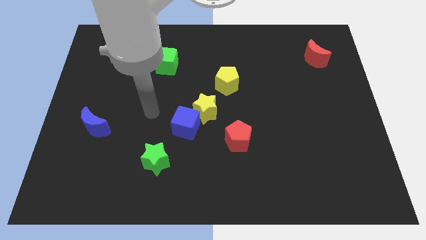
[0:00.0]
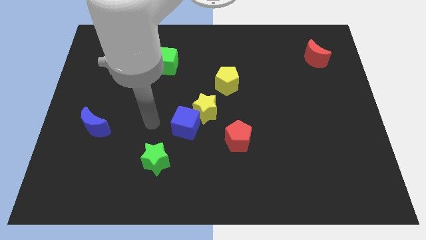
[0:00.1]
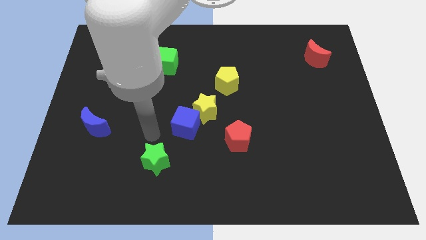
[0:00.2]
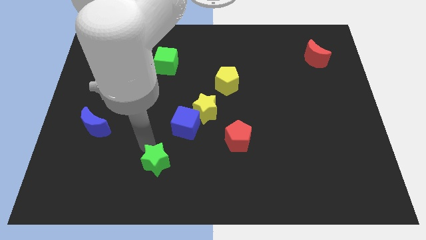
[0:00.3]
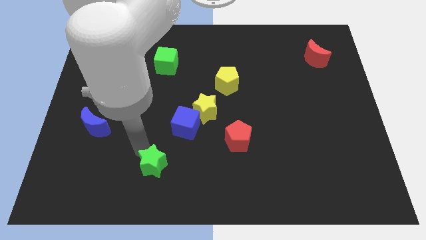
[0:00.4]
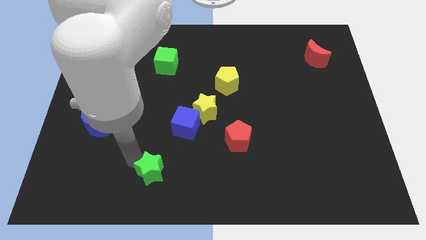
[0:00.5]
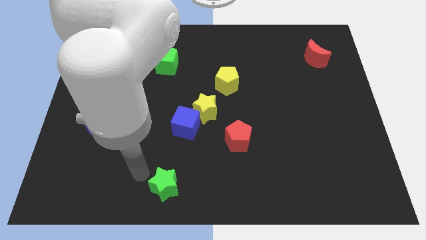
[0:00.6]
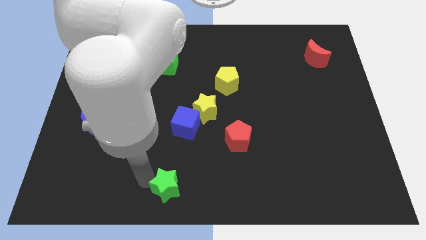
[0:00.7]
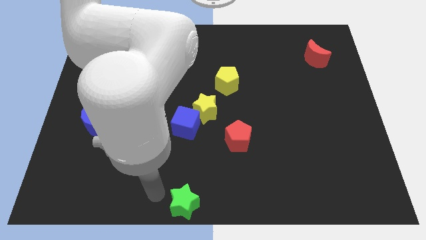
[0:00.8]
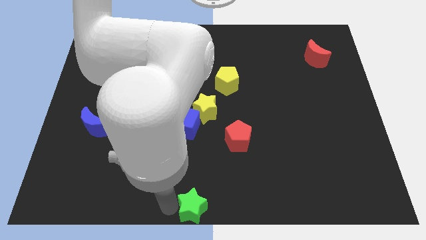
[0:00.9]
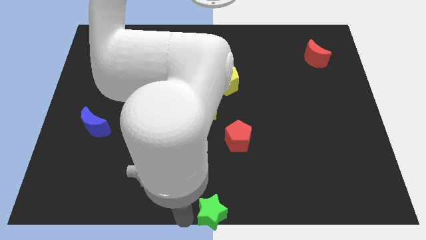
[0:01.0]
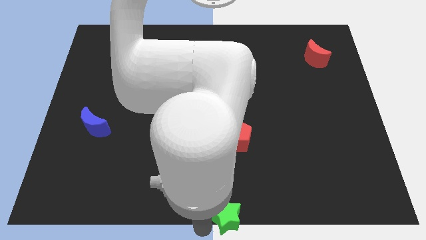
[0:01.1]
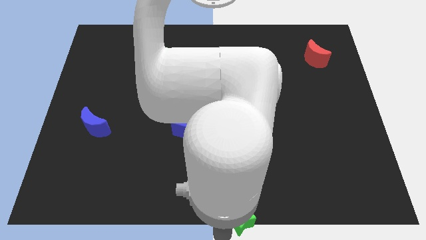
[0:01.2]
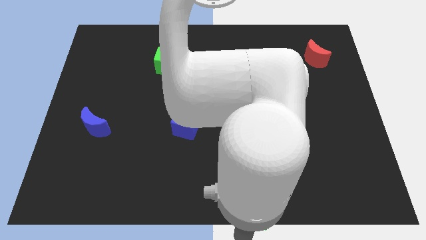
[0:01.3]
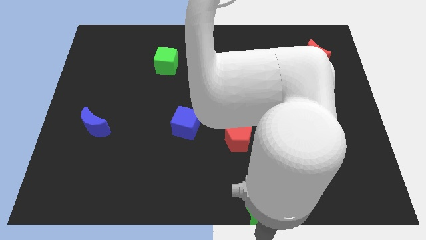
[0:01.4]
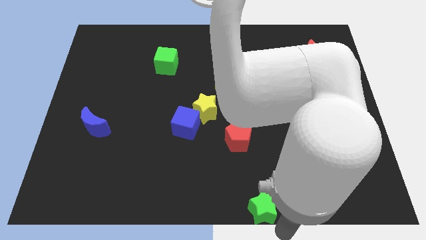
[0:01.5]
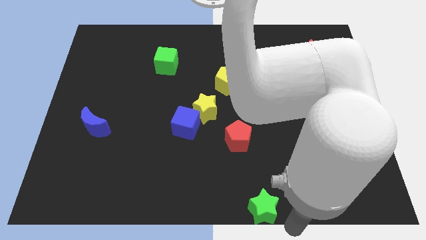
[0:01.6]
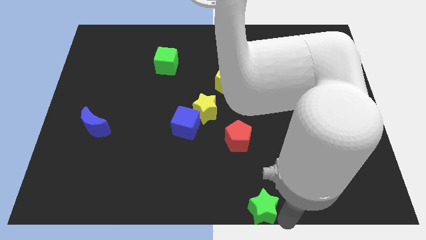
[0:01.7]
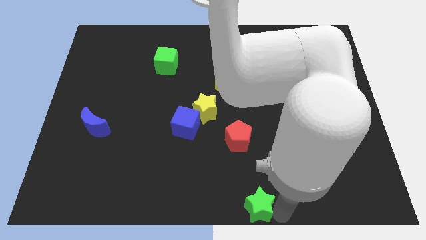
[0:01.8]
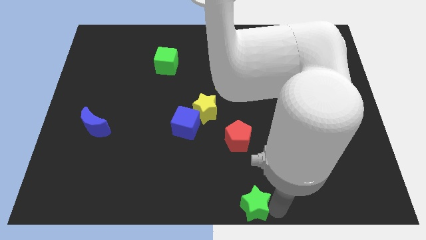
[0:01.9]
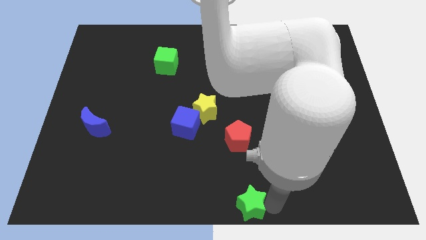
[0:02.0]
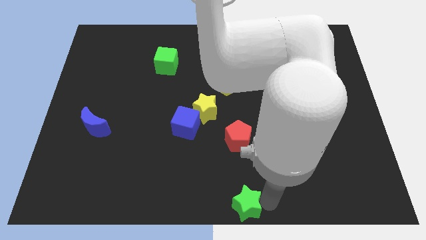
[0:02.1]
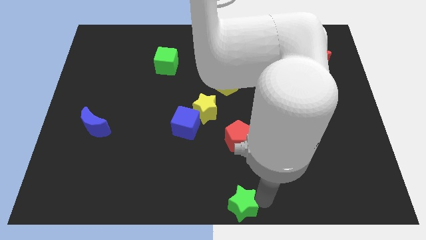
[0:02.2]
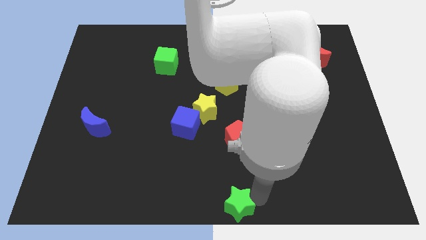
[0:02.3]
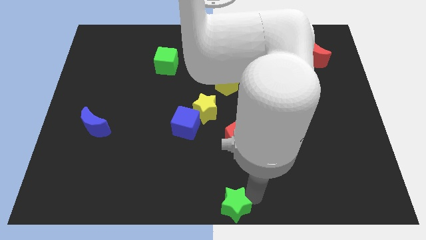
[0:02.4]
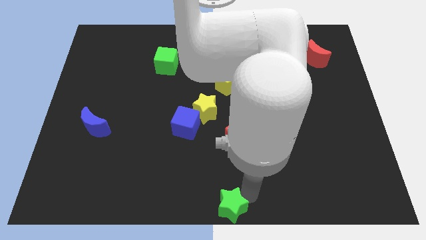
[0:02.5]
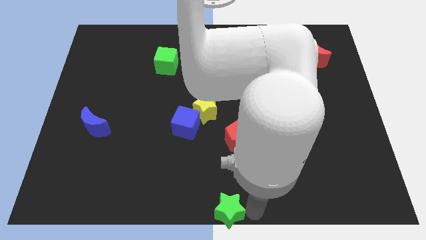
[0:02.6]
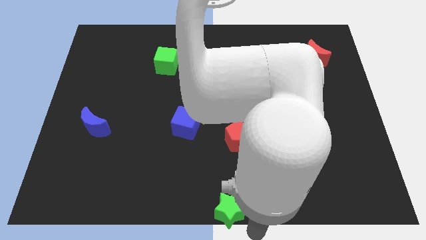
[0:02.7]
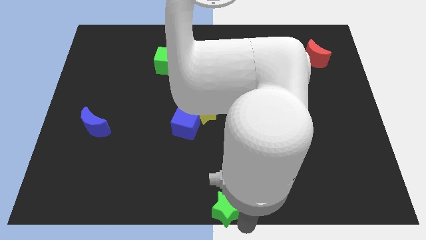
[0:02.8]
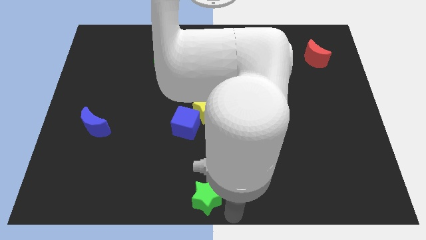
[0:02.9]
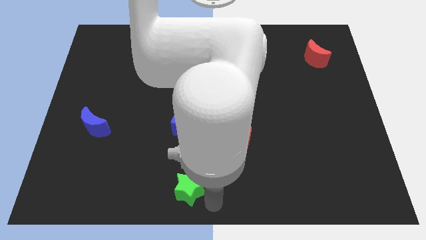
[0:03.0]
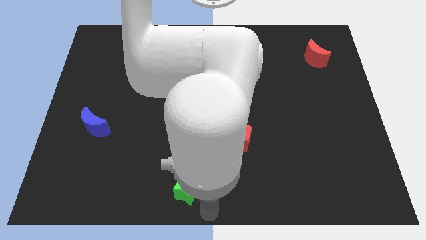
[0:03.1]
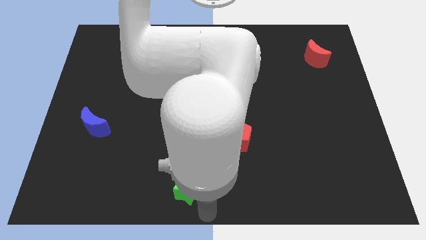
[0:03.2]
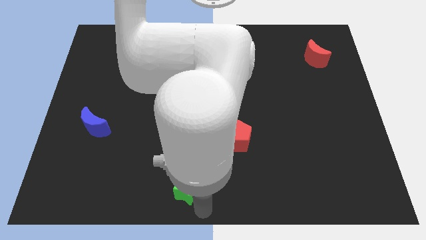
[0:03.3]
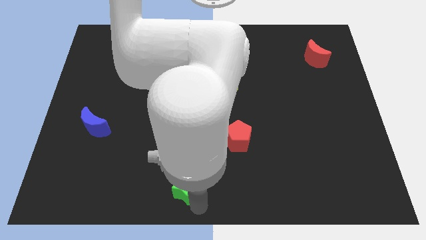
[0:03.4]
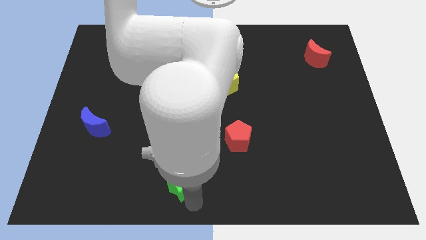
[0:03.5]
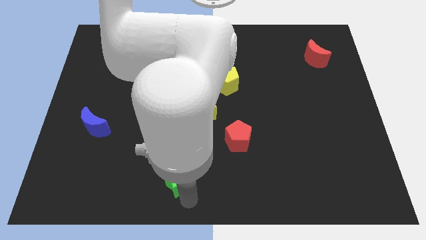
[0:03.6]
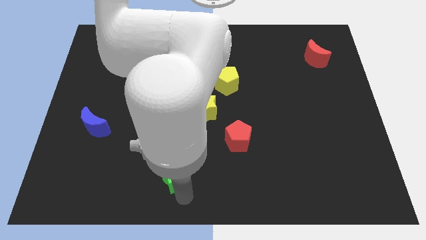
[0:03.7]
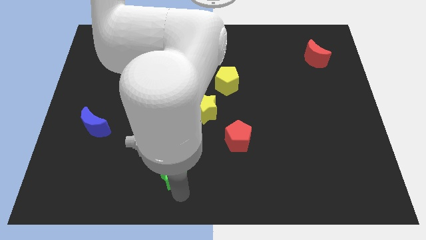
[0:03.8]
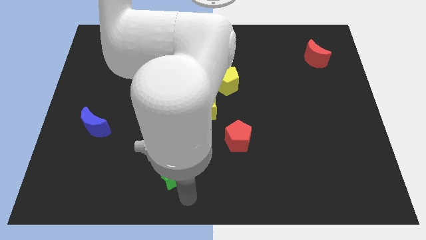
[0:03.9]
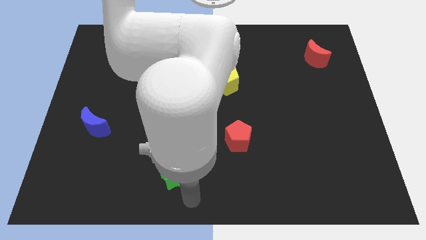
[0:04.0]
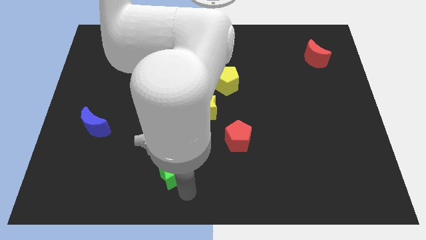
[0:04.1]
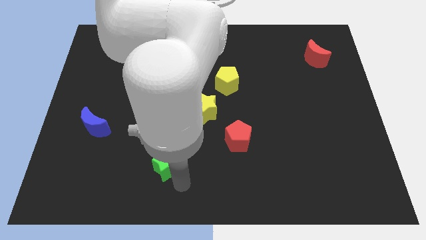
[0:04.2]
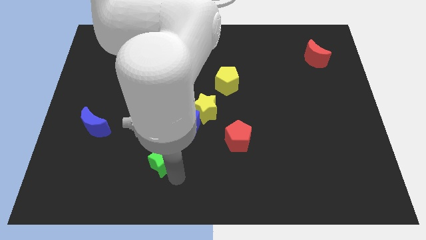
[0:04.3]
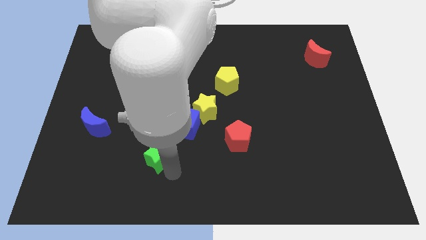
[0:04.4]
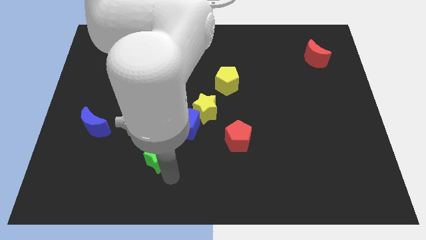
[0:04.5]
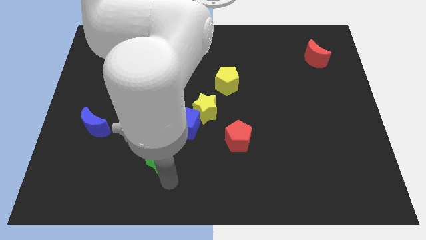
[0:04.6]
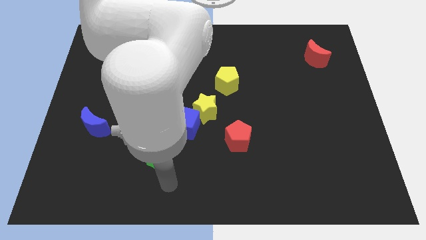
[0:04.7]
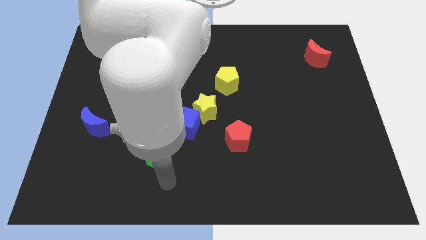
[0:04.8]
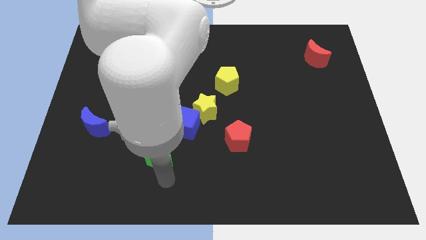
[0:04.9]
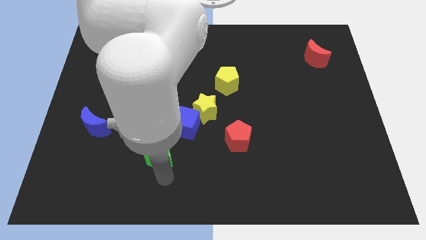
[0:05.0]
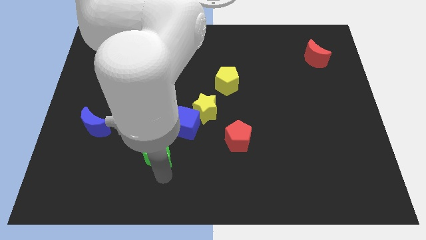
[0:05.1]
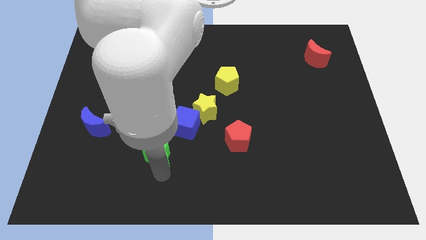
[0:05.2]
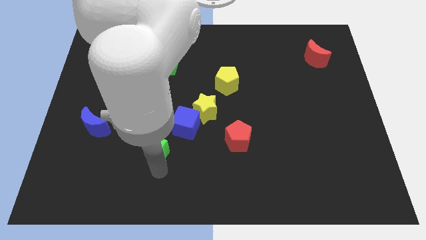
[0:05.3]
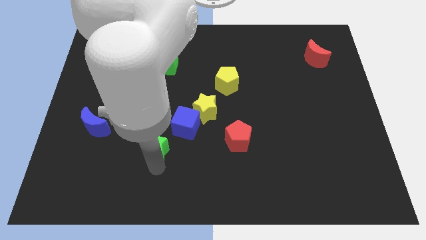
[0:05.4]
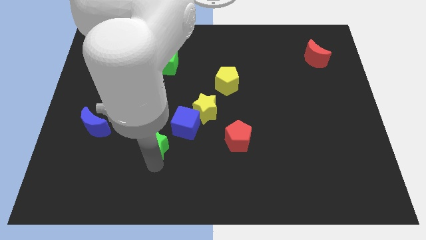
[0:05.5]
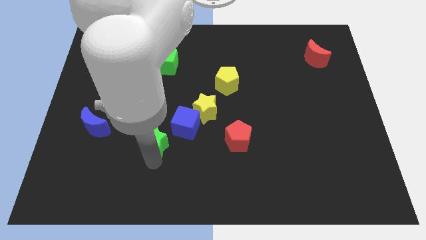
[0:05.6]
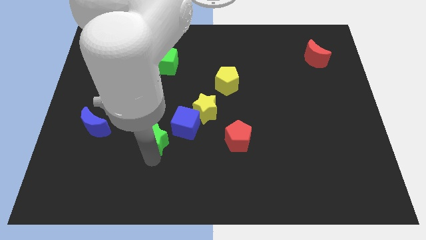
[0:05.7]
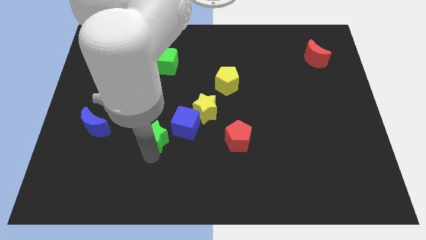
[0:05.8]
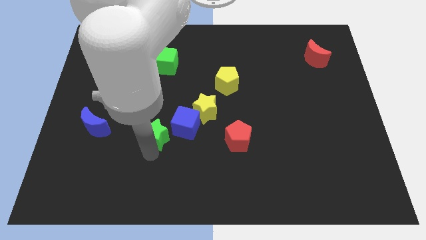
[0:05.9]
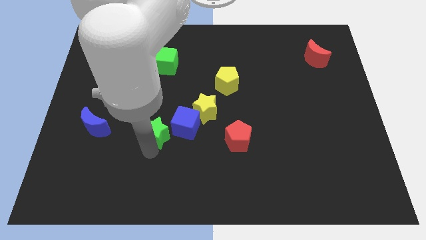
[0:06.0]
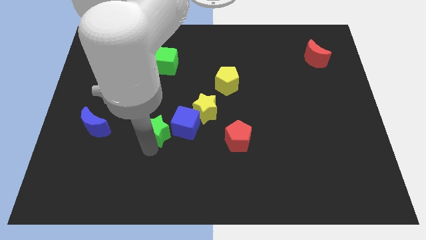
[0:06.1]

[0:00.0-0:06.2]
slightly move the green star up

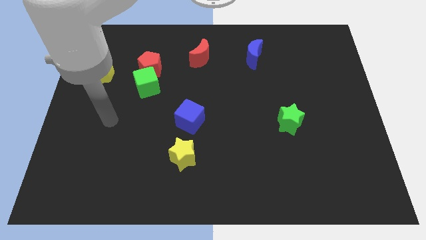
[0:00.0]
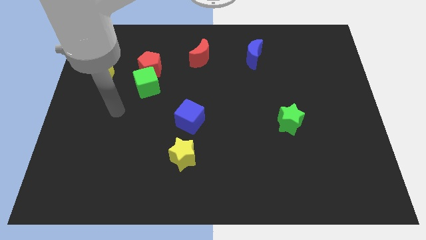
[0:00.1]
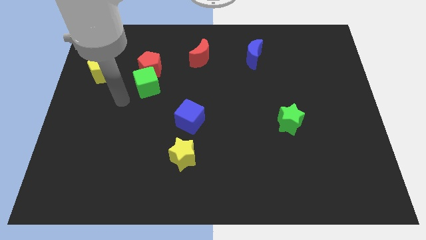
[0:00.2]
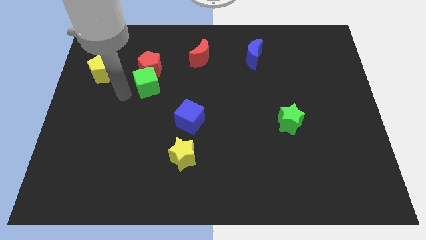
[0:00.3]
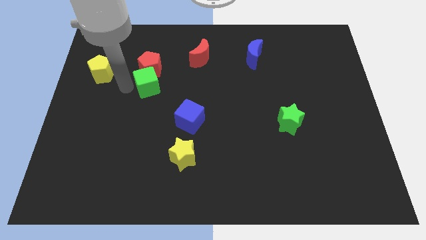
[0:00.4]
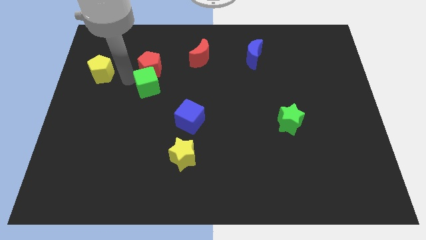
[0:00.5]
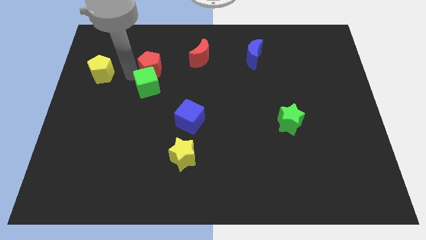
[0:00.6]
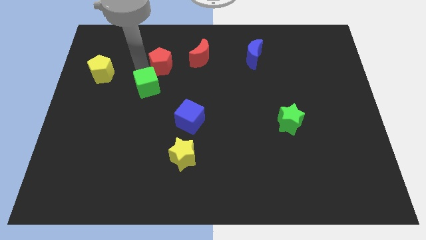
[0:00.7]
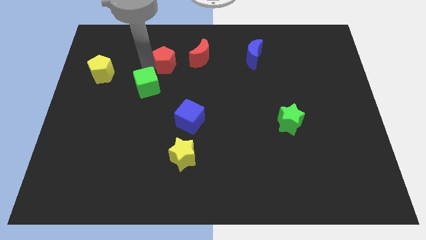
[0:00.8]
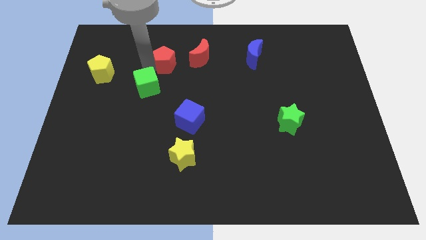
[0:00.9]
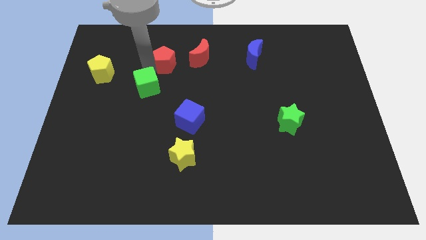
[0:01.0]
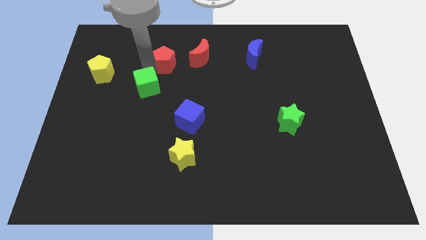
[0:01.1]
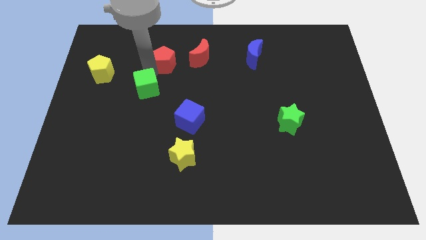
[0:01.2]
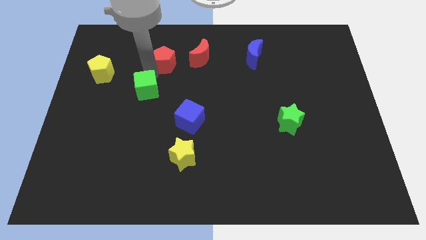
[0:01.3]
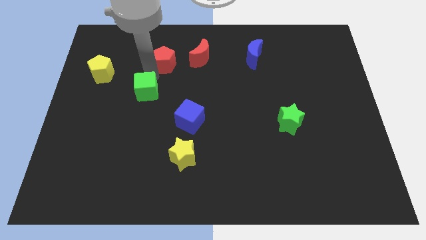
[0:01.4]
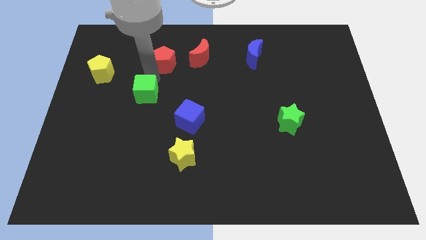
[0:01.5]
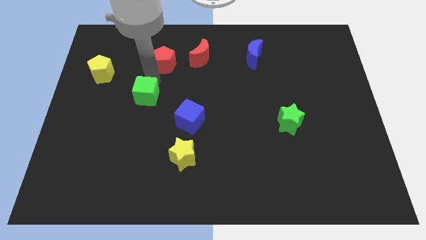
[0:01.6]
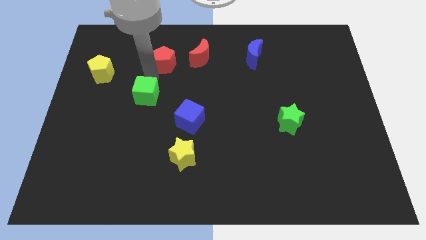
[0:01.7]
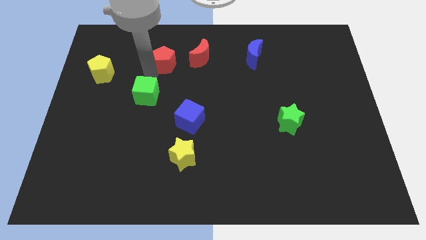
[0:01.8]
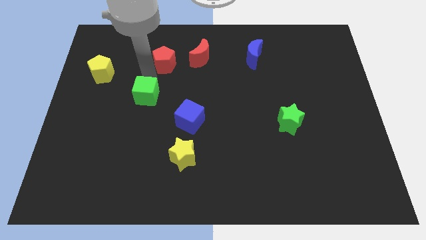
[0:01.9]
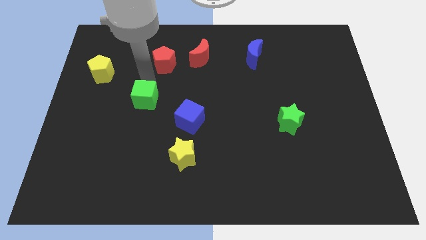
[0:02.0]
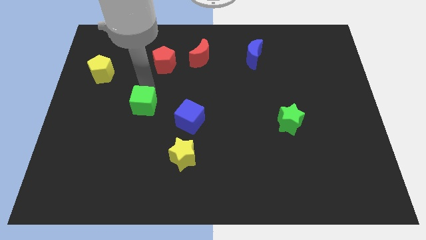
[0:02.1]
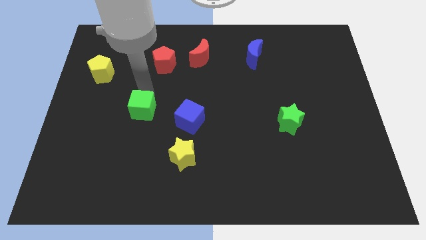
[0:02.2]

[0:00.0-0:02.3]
slightly move the green cube downwards
